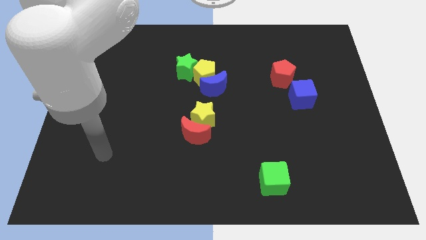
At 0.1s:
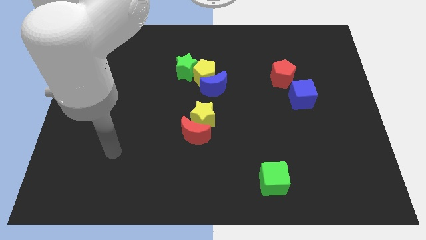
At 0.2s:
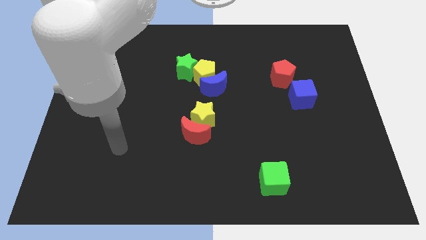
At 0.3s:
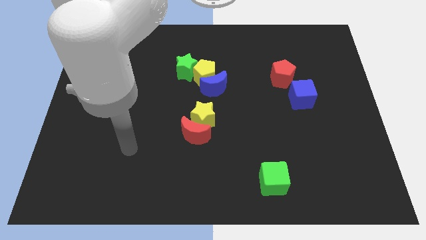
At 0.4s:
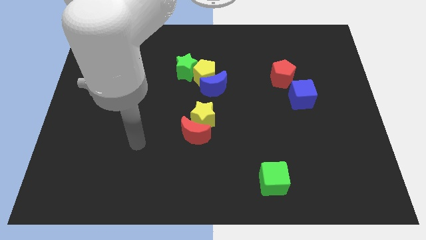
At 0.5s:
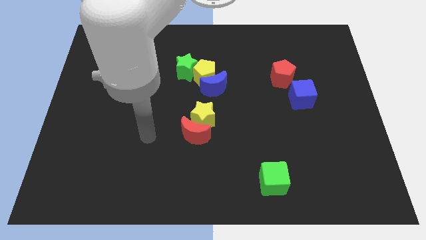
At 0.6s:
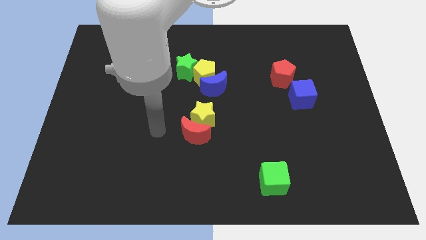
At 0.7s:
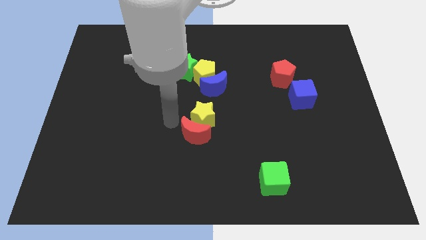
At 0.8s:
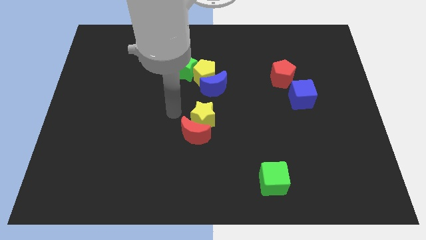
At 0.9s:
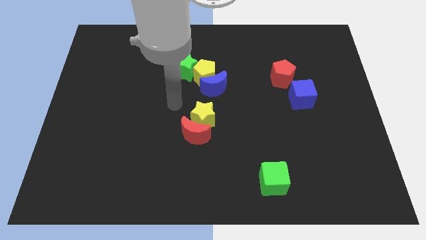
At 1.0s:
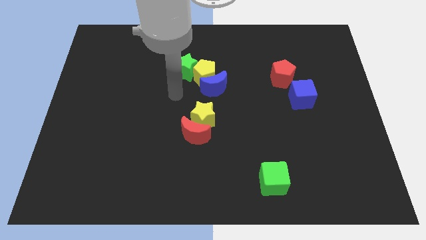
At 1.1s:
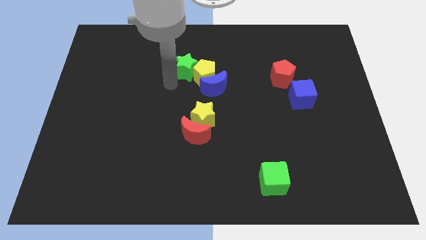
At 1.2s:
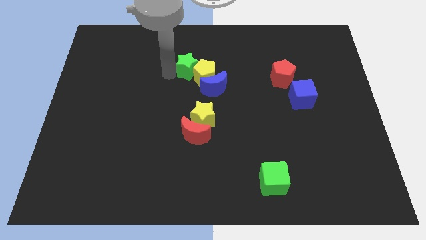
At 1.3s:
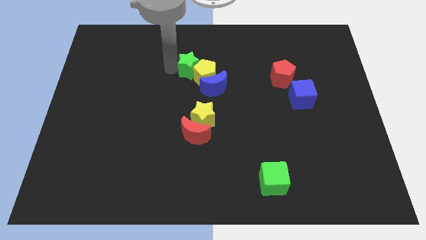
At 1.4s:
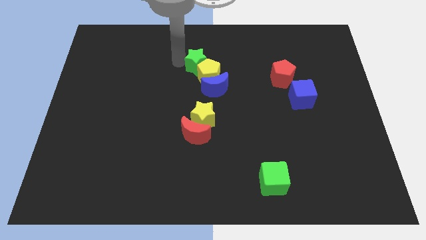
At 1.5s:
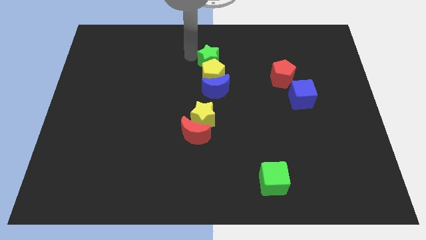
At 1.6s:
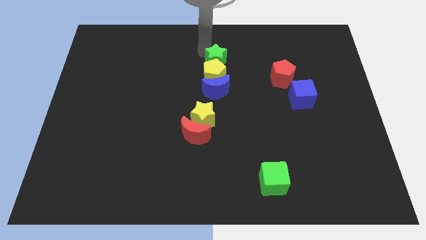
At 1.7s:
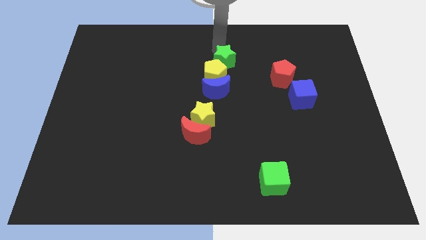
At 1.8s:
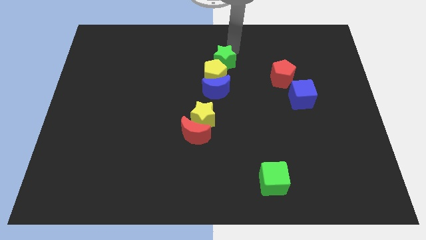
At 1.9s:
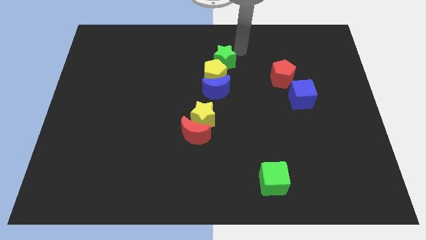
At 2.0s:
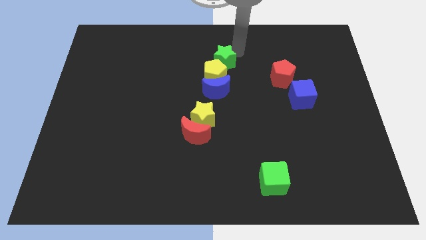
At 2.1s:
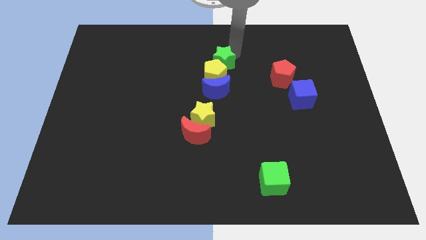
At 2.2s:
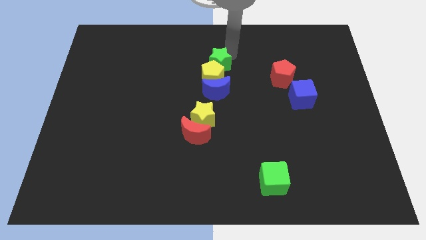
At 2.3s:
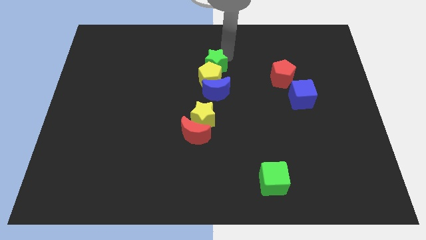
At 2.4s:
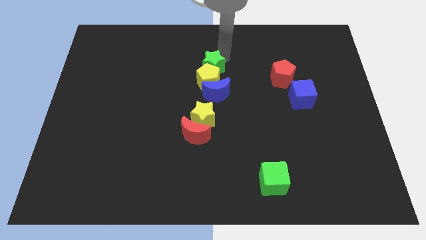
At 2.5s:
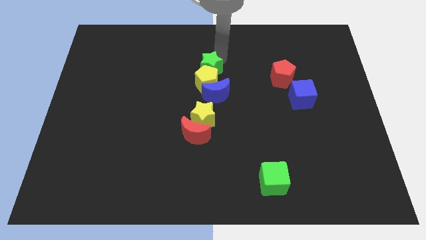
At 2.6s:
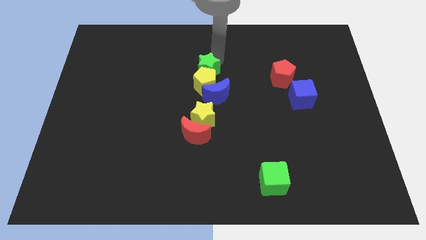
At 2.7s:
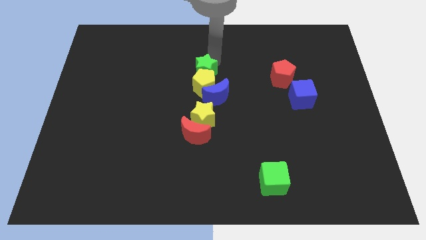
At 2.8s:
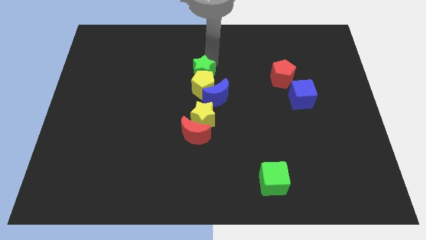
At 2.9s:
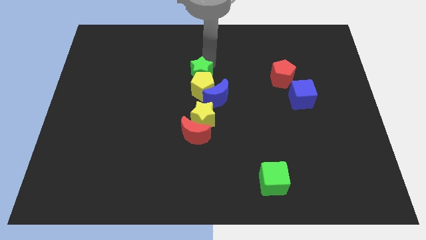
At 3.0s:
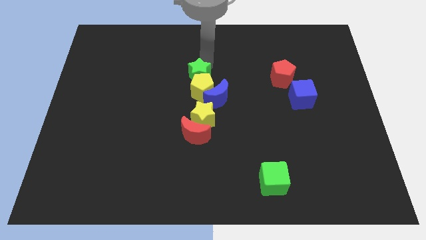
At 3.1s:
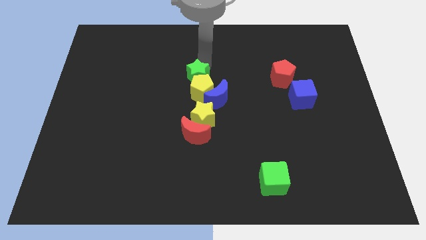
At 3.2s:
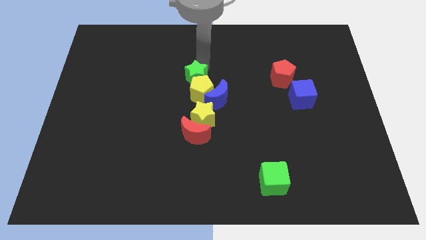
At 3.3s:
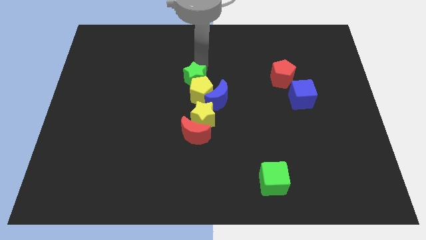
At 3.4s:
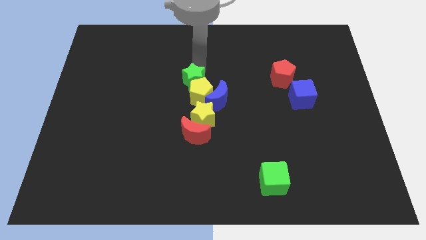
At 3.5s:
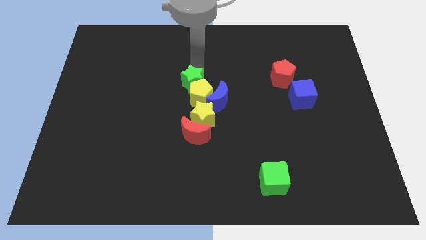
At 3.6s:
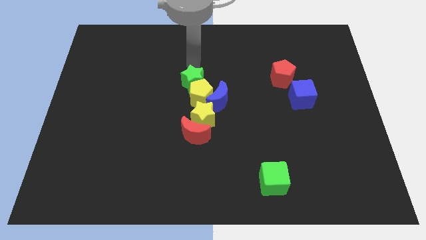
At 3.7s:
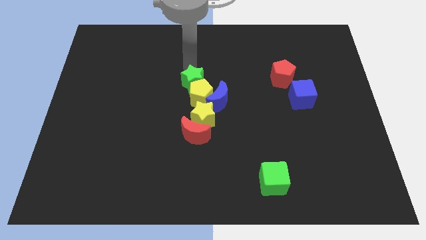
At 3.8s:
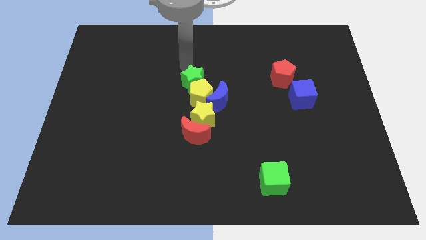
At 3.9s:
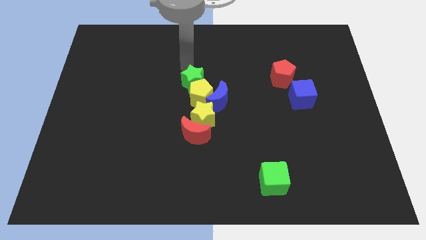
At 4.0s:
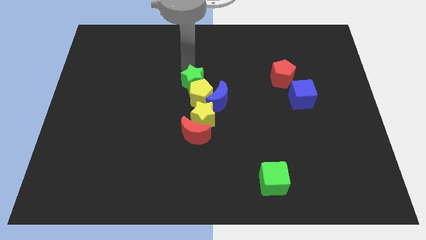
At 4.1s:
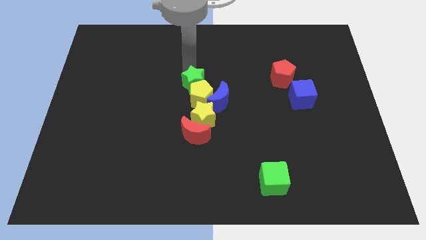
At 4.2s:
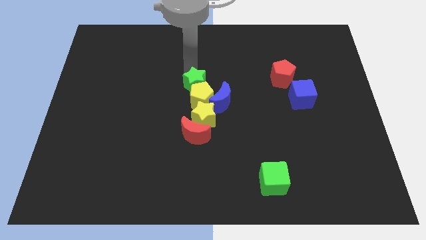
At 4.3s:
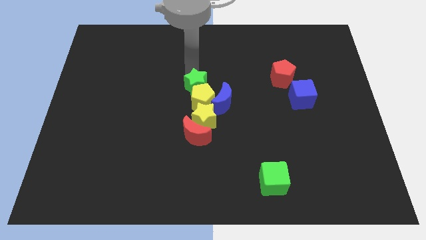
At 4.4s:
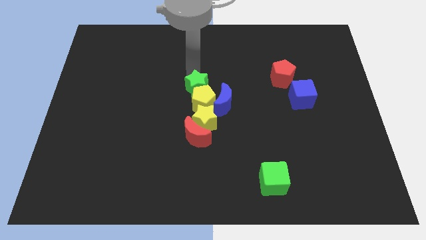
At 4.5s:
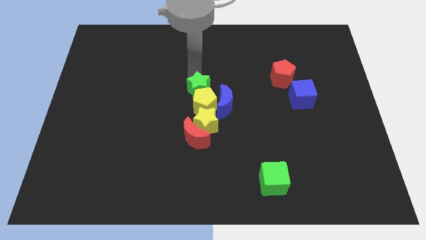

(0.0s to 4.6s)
push the green star down and to the right somewhat

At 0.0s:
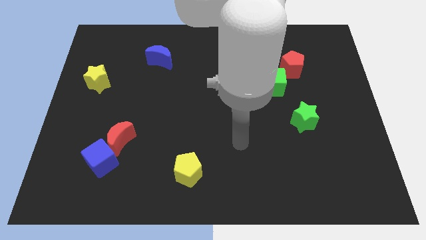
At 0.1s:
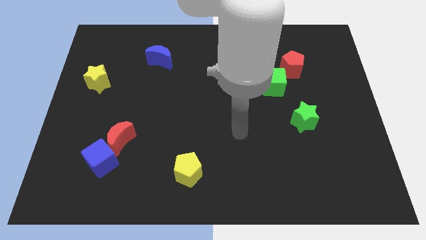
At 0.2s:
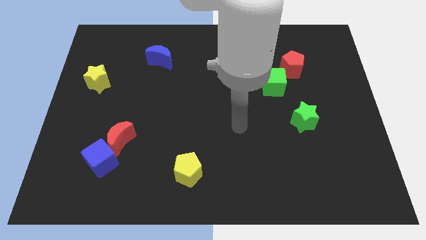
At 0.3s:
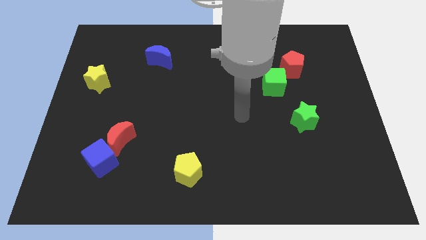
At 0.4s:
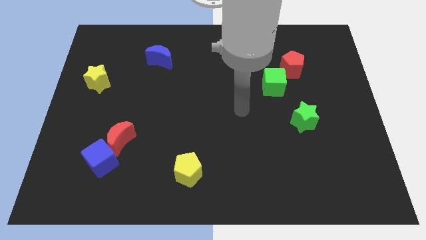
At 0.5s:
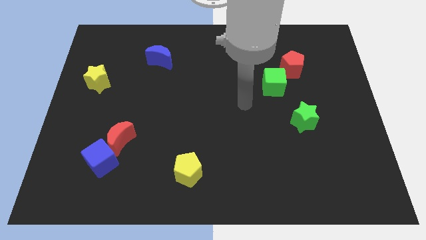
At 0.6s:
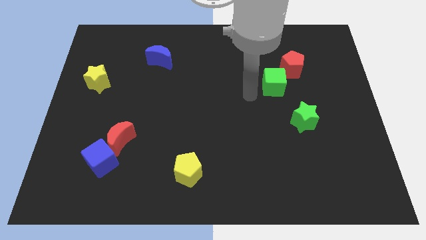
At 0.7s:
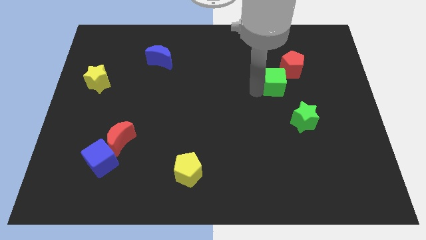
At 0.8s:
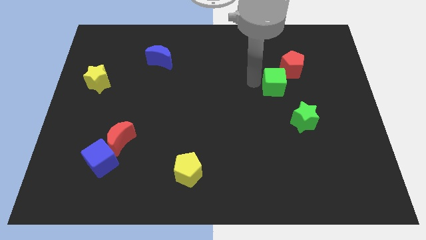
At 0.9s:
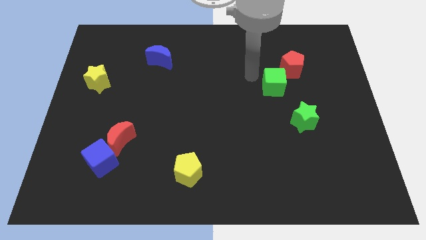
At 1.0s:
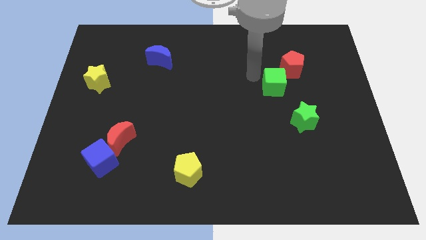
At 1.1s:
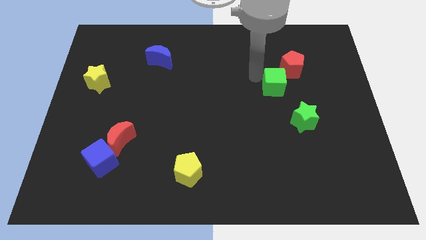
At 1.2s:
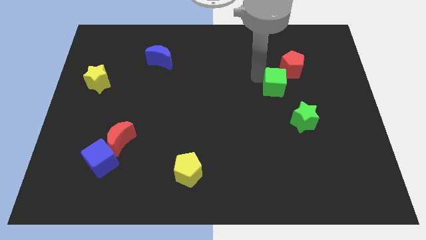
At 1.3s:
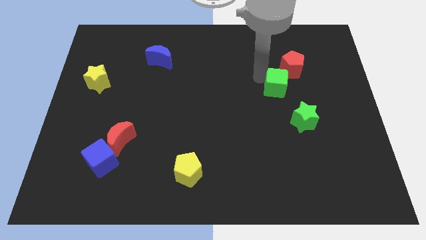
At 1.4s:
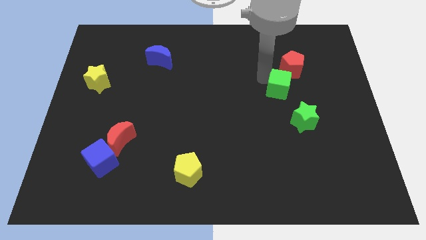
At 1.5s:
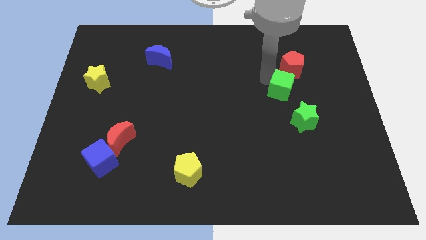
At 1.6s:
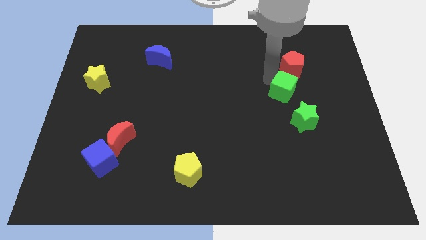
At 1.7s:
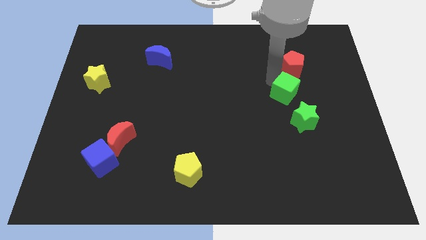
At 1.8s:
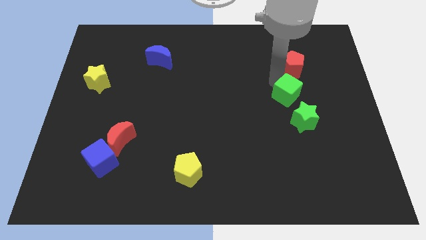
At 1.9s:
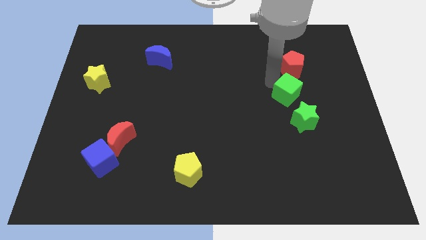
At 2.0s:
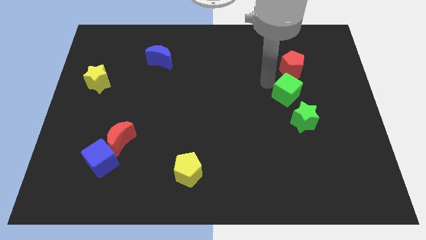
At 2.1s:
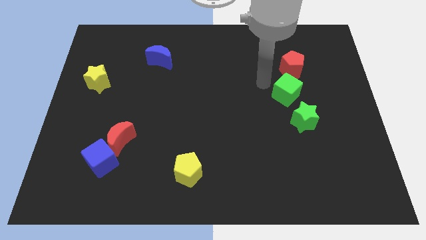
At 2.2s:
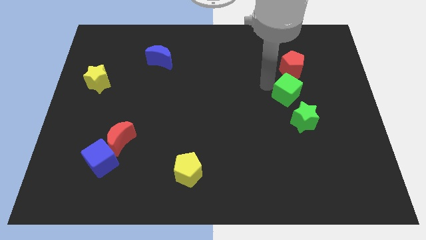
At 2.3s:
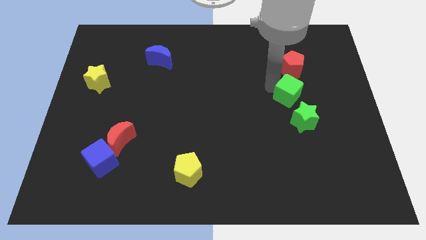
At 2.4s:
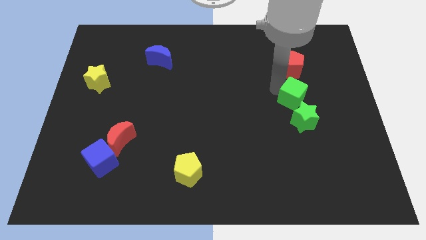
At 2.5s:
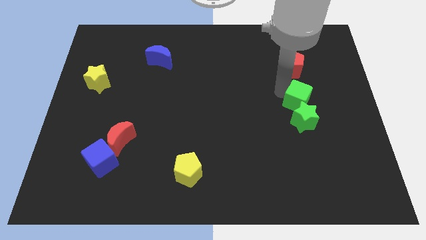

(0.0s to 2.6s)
slide the green cube a little down and to the right diagonally

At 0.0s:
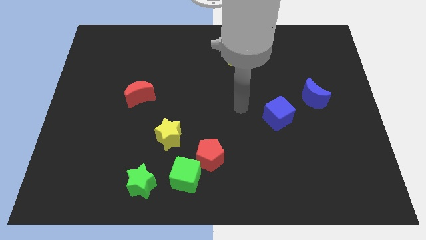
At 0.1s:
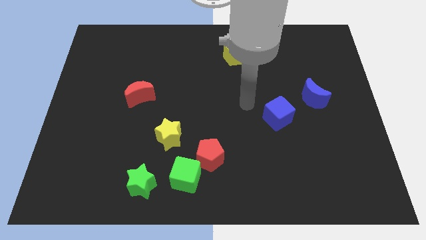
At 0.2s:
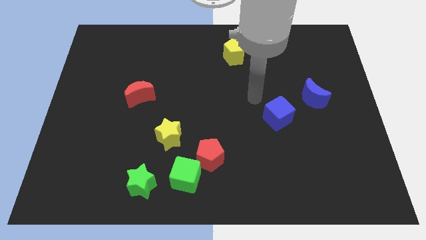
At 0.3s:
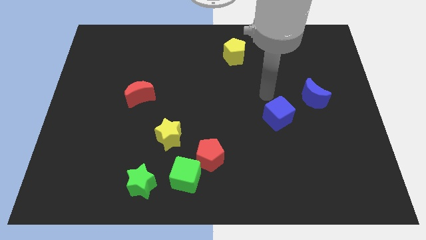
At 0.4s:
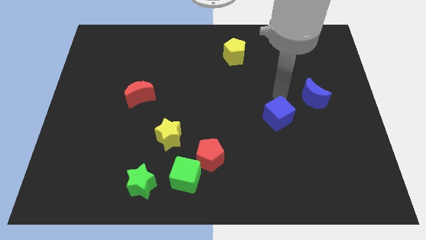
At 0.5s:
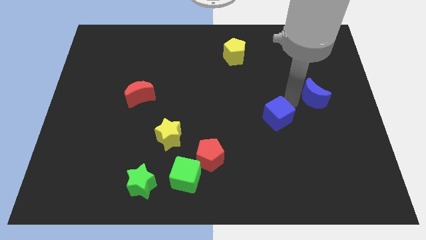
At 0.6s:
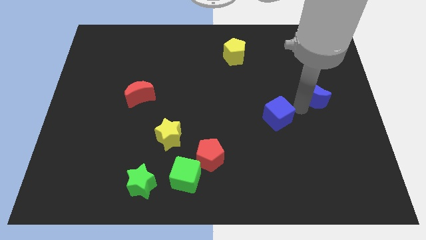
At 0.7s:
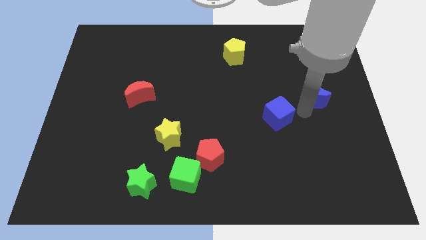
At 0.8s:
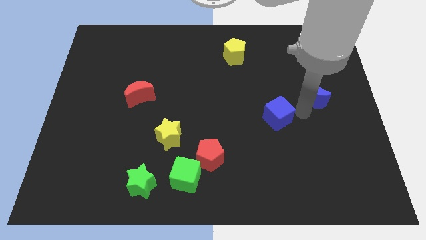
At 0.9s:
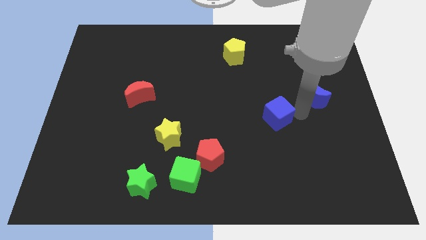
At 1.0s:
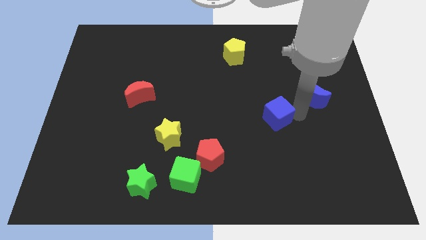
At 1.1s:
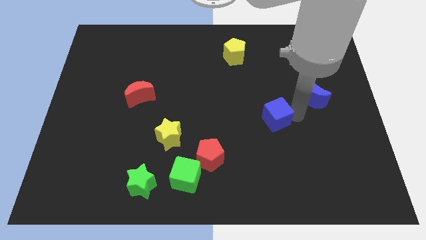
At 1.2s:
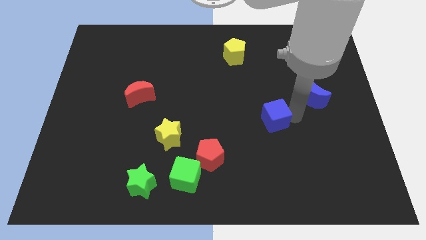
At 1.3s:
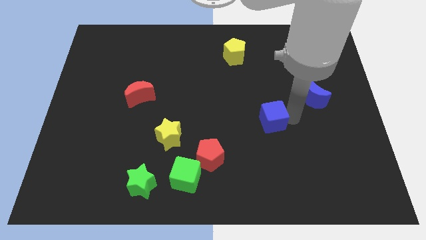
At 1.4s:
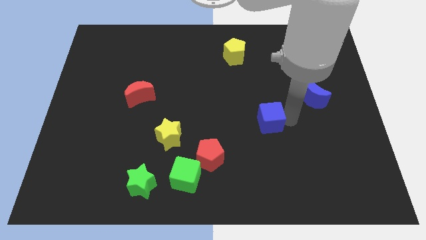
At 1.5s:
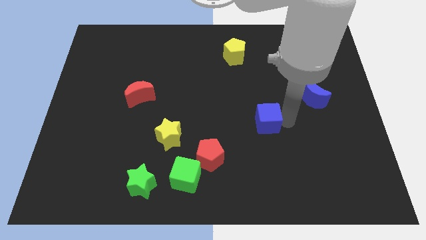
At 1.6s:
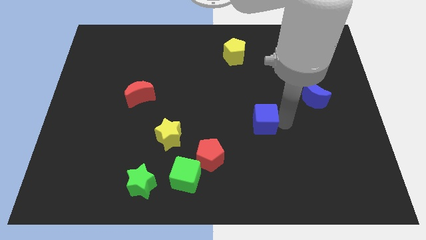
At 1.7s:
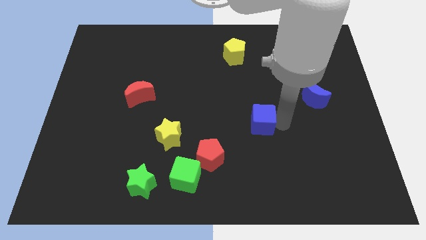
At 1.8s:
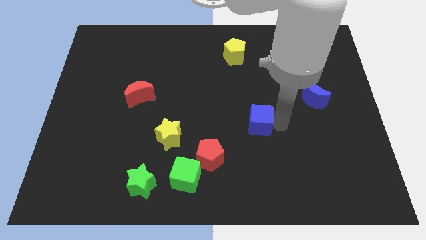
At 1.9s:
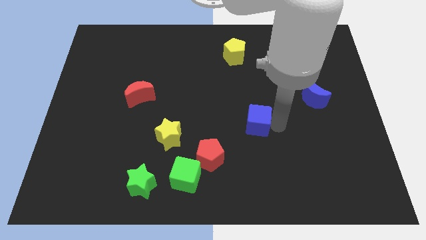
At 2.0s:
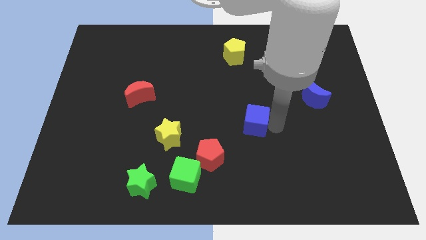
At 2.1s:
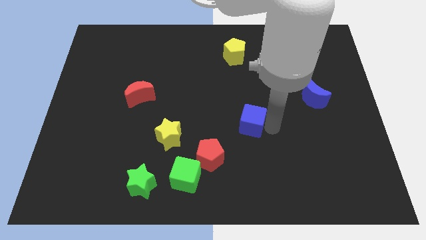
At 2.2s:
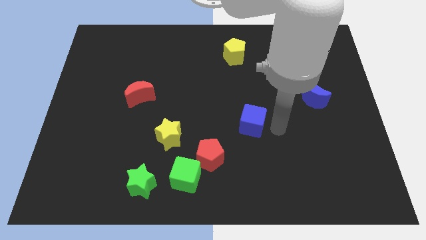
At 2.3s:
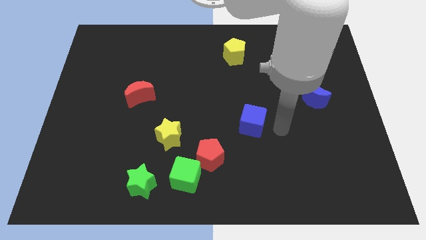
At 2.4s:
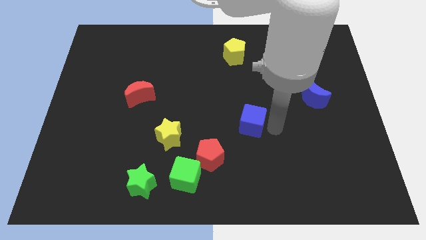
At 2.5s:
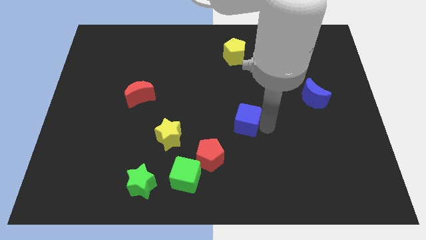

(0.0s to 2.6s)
slide the blue cube to the left a little bit
